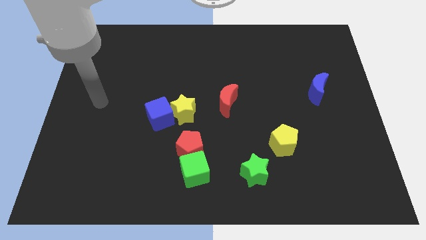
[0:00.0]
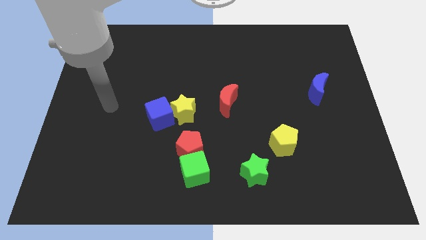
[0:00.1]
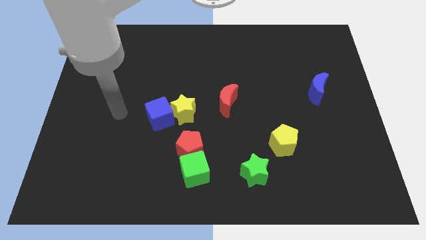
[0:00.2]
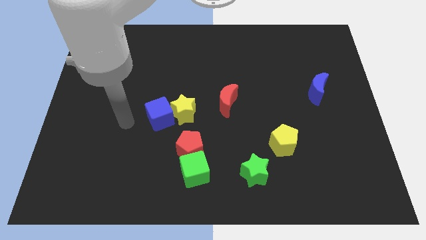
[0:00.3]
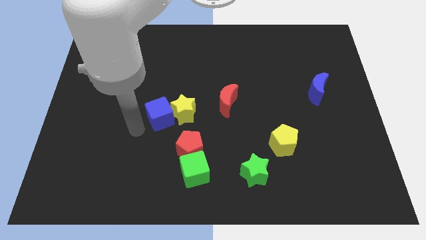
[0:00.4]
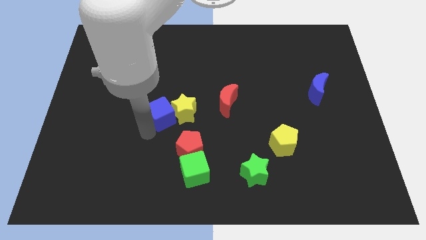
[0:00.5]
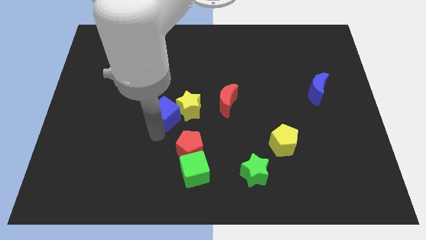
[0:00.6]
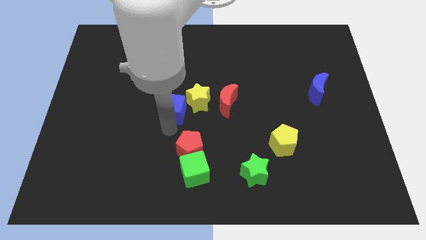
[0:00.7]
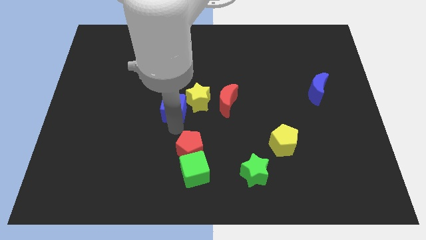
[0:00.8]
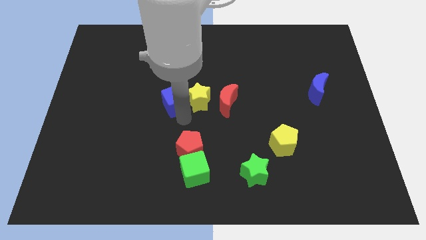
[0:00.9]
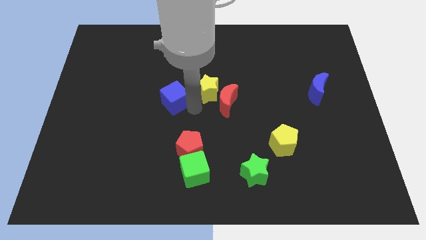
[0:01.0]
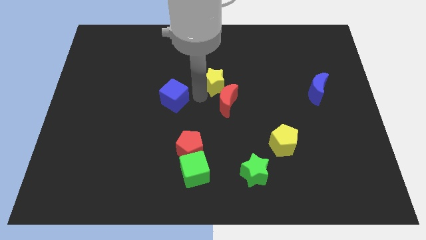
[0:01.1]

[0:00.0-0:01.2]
pull the blue cube apart from the yellow star

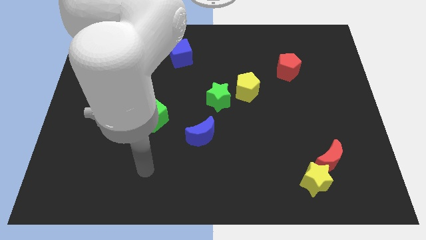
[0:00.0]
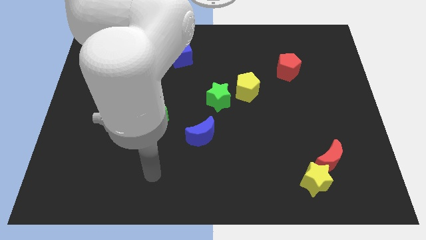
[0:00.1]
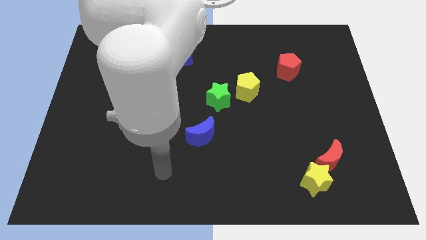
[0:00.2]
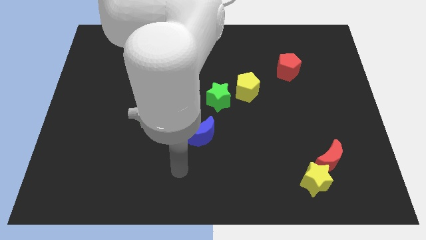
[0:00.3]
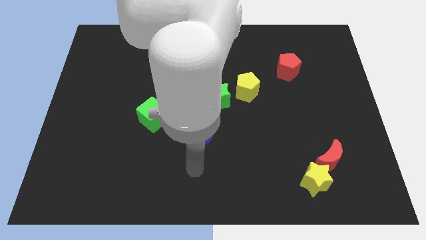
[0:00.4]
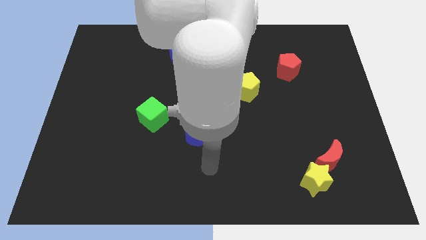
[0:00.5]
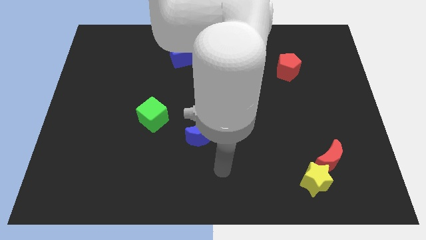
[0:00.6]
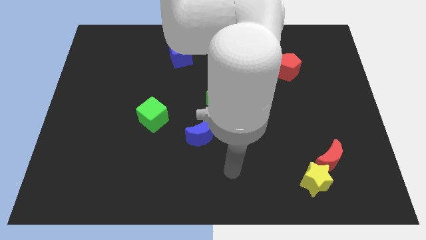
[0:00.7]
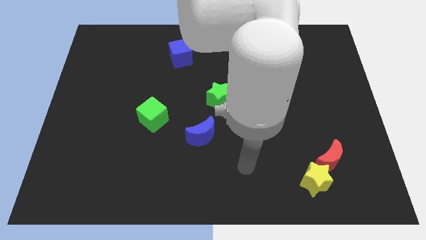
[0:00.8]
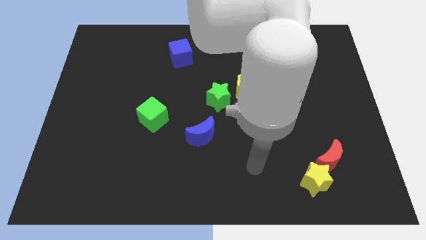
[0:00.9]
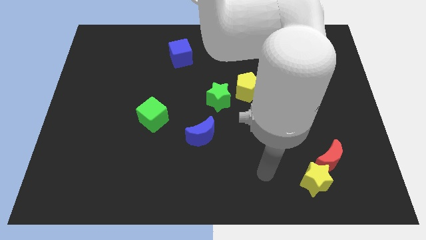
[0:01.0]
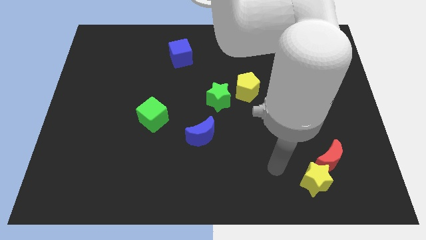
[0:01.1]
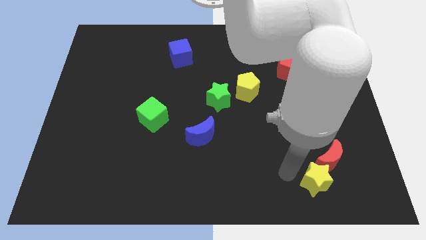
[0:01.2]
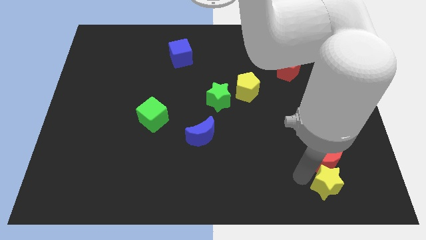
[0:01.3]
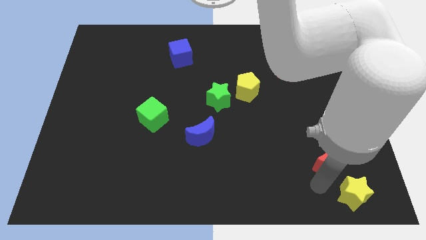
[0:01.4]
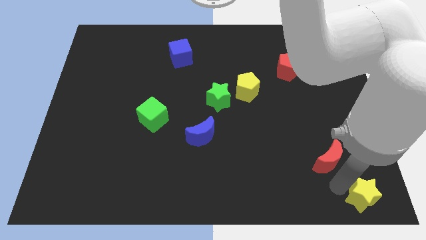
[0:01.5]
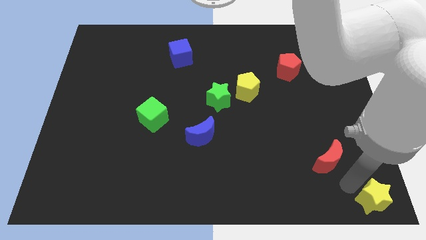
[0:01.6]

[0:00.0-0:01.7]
separate the red moon from the yellow star

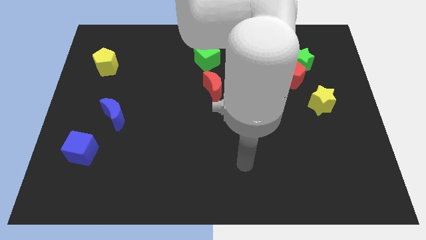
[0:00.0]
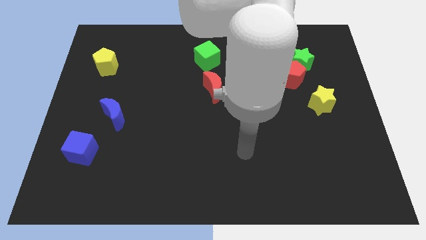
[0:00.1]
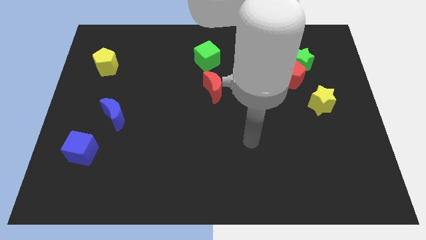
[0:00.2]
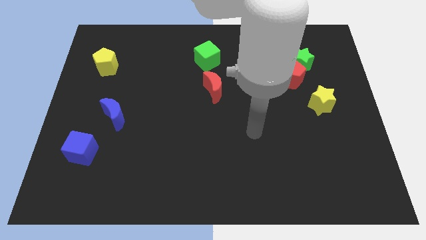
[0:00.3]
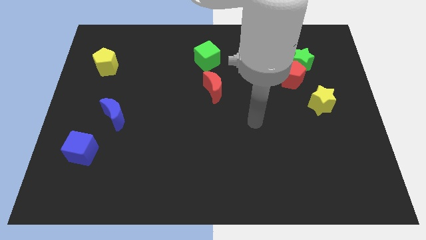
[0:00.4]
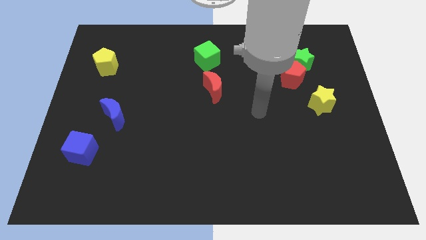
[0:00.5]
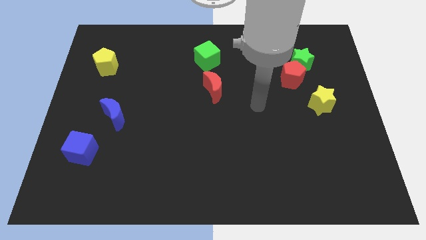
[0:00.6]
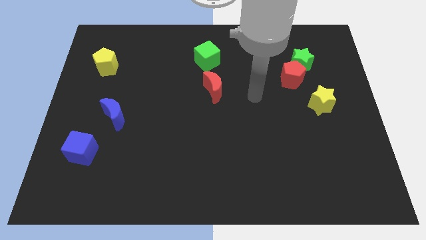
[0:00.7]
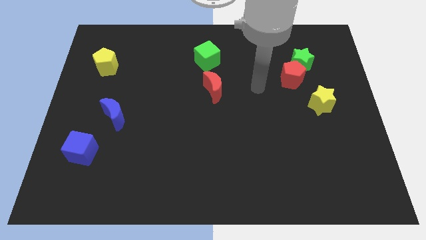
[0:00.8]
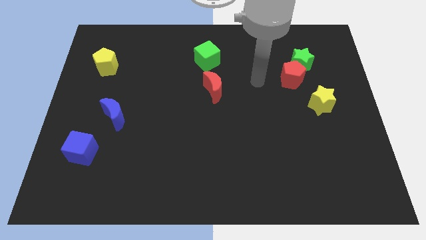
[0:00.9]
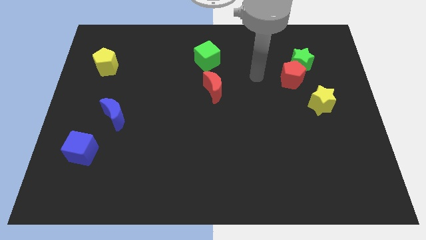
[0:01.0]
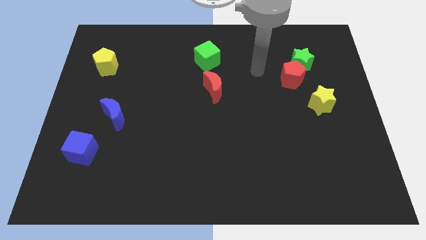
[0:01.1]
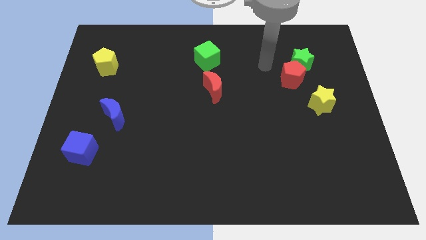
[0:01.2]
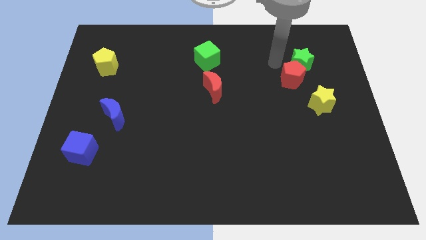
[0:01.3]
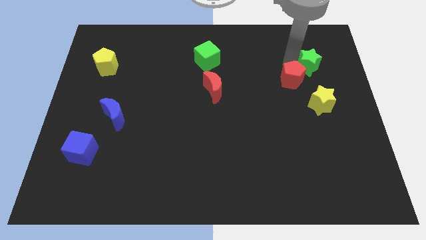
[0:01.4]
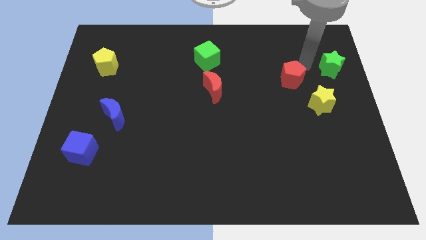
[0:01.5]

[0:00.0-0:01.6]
move the red pentagon away from the green star

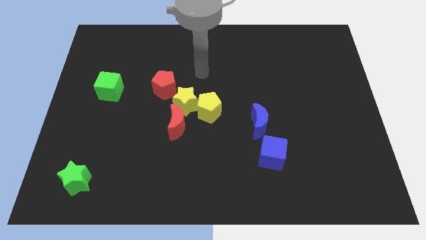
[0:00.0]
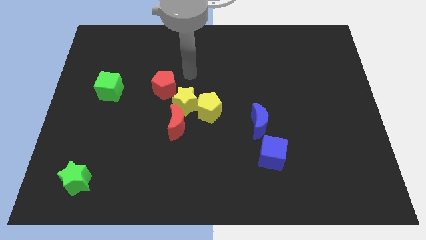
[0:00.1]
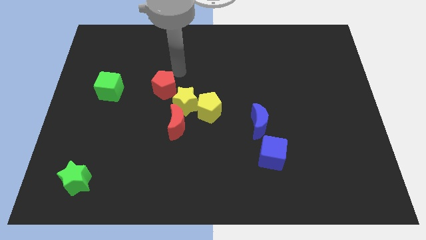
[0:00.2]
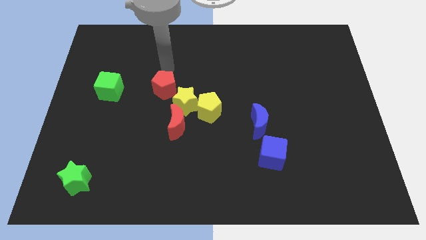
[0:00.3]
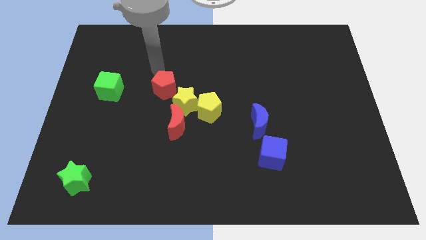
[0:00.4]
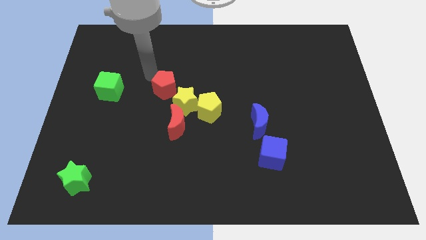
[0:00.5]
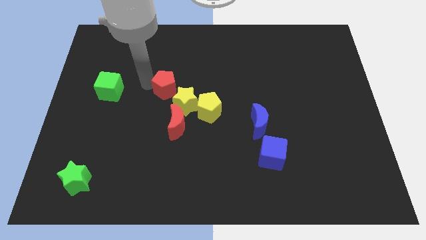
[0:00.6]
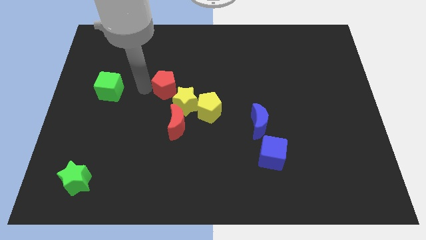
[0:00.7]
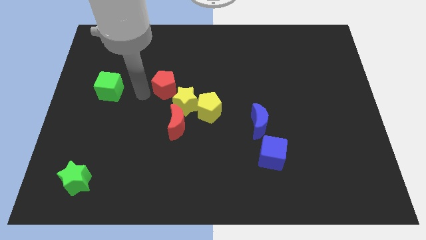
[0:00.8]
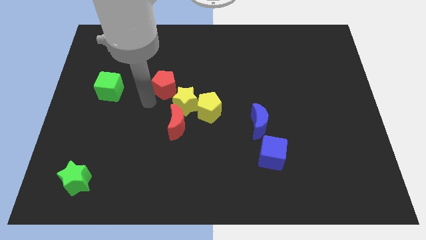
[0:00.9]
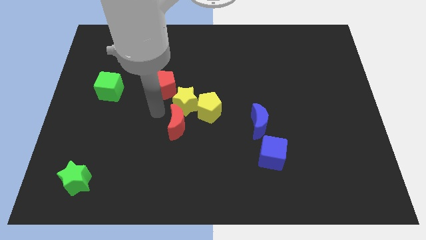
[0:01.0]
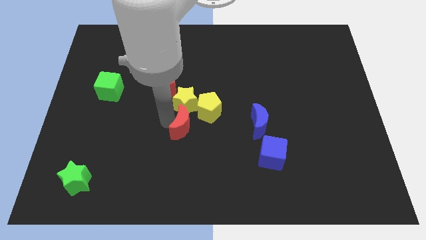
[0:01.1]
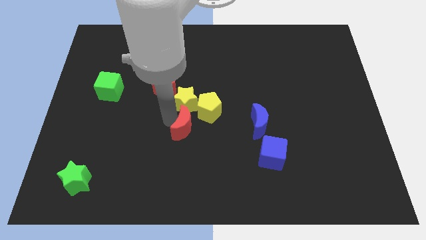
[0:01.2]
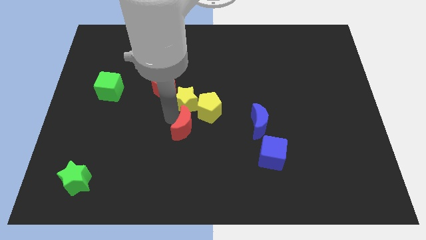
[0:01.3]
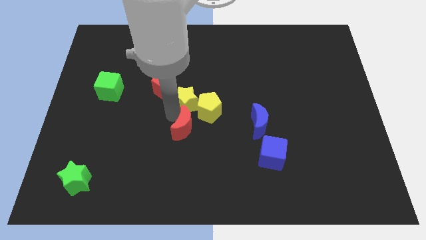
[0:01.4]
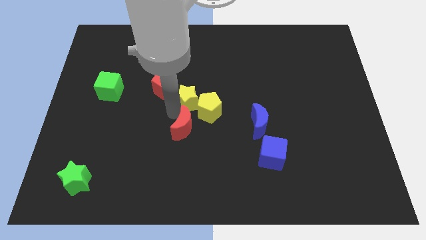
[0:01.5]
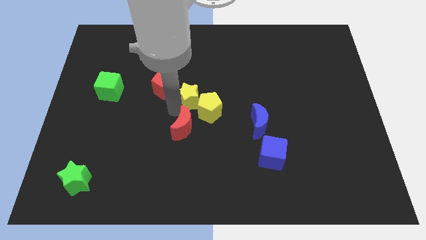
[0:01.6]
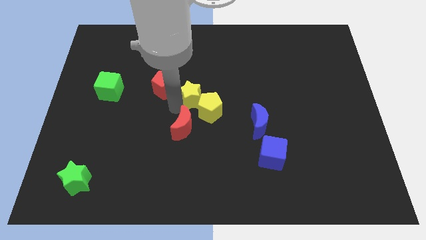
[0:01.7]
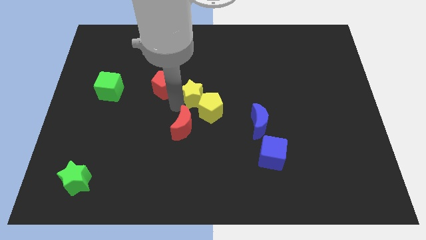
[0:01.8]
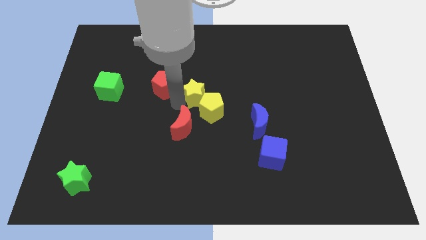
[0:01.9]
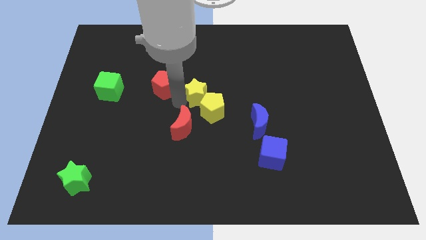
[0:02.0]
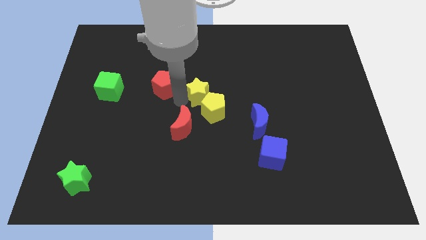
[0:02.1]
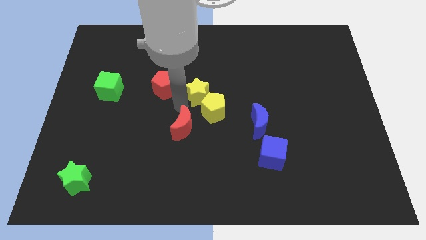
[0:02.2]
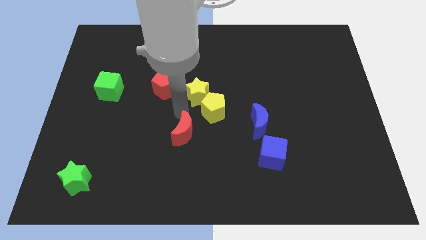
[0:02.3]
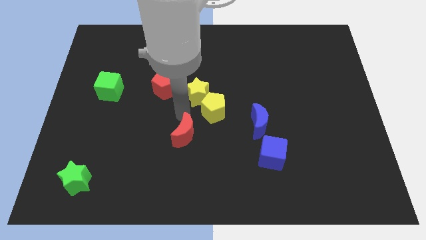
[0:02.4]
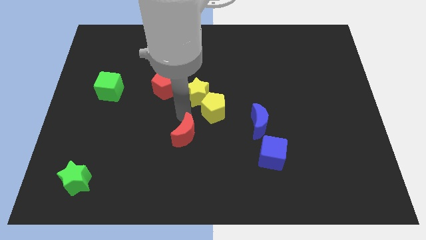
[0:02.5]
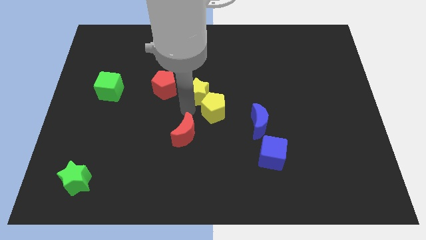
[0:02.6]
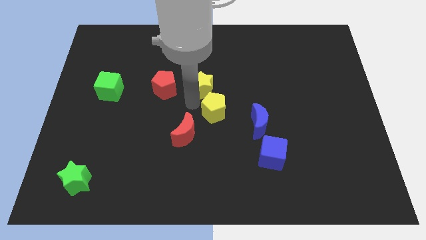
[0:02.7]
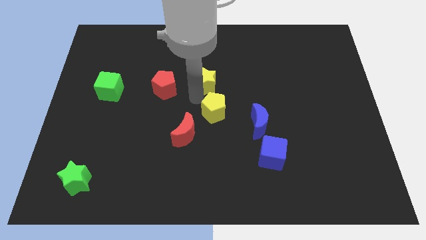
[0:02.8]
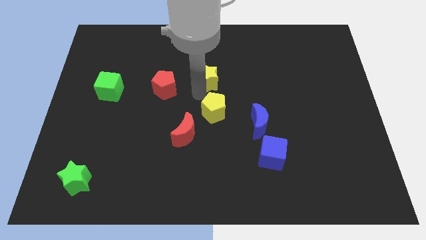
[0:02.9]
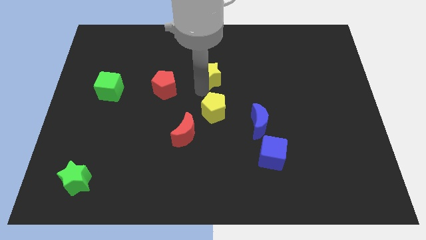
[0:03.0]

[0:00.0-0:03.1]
move the yellow star away from the yellow pentagon, red moon, and red pentagon

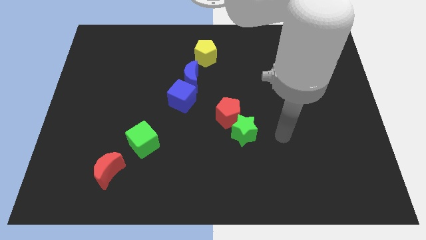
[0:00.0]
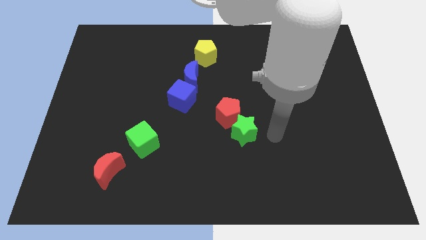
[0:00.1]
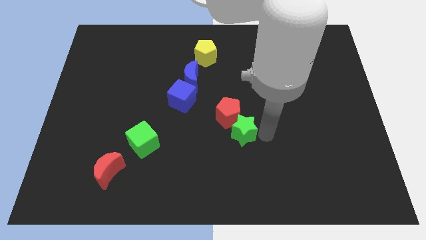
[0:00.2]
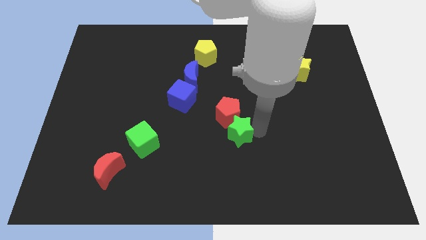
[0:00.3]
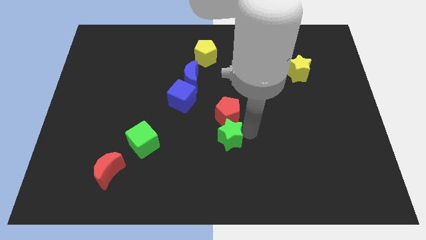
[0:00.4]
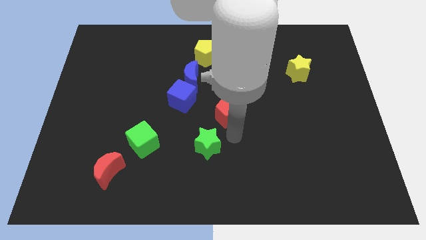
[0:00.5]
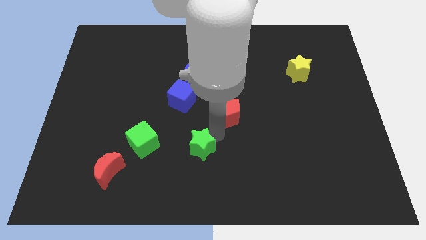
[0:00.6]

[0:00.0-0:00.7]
pull the red pentagon apart from the green star

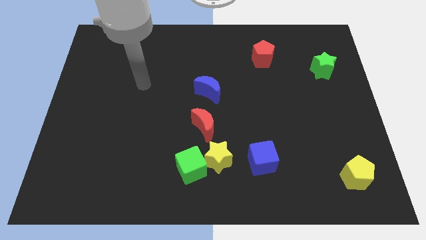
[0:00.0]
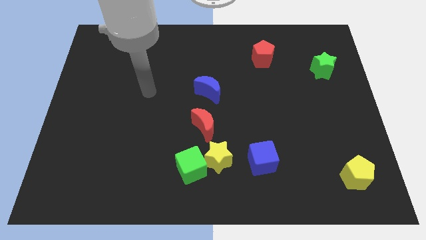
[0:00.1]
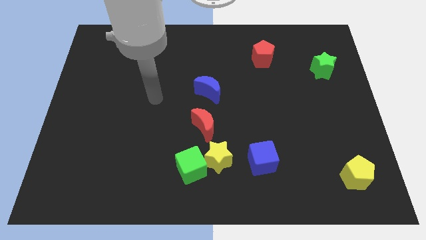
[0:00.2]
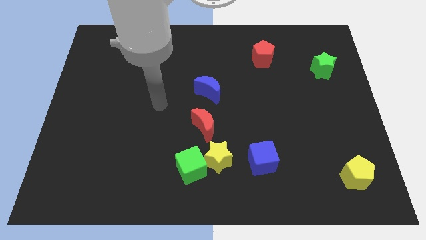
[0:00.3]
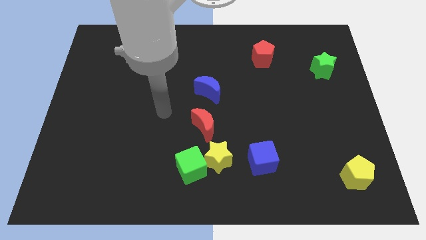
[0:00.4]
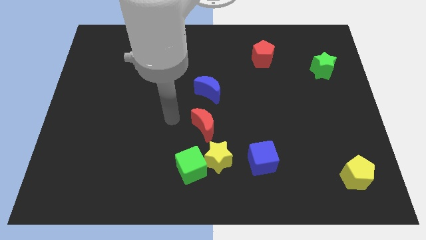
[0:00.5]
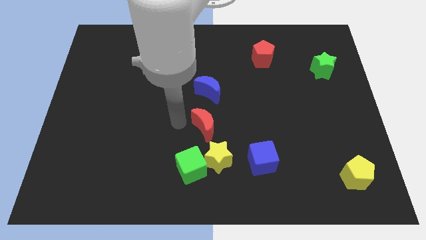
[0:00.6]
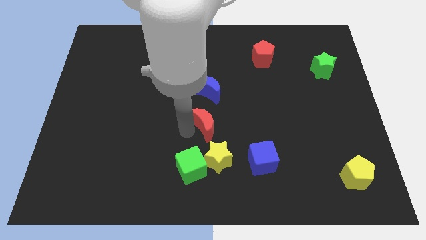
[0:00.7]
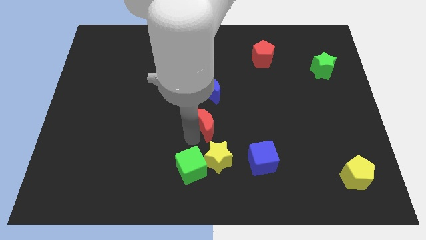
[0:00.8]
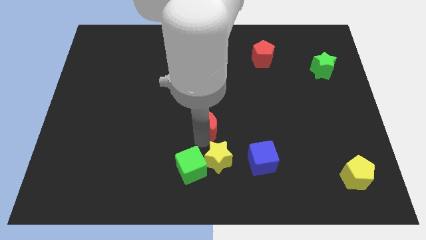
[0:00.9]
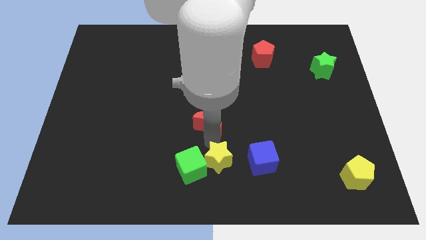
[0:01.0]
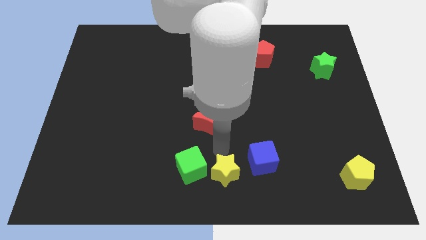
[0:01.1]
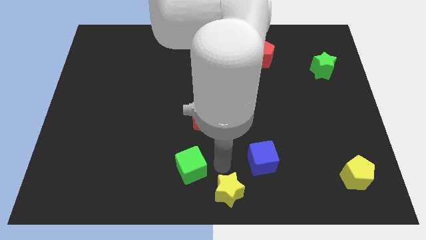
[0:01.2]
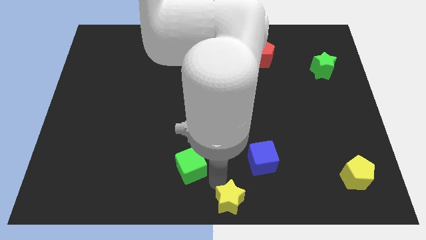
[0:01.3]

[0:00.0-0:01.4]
move the green cube away from the yellow star
